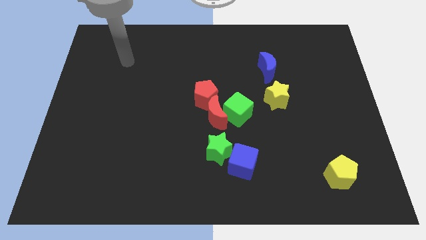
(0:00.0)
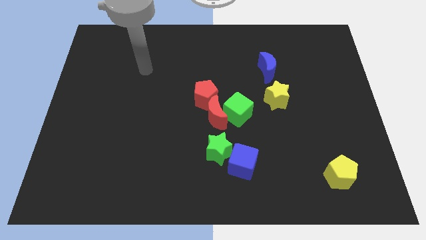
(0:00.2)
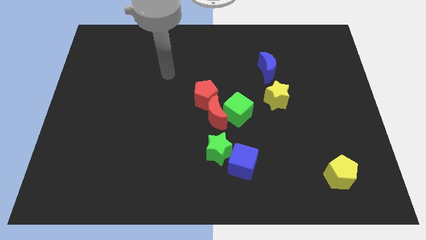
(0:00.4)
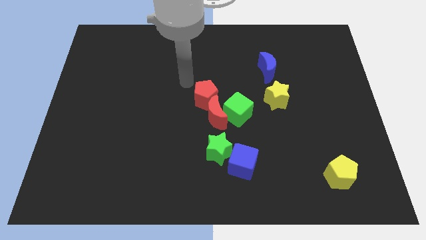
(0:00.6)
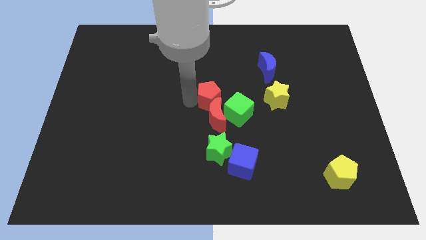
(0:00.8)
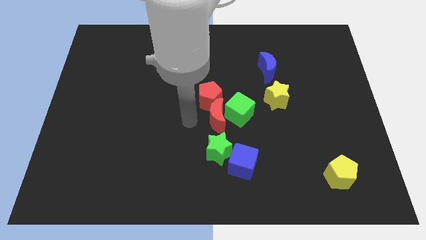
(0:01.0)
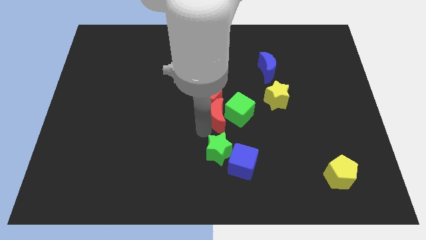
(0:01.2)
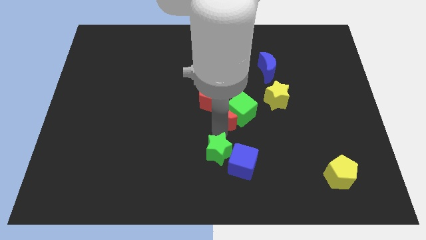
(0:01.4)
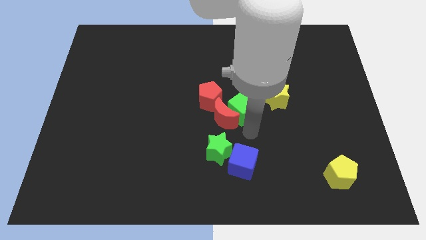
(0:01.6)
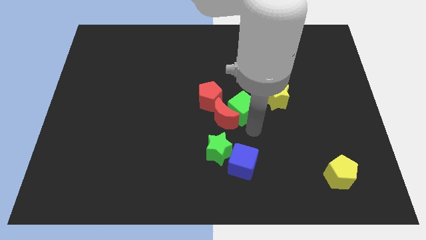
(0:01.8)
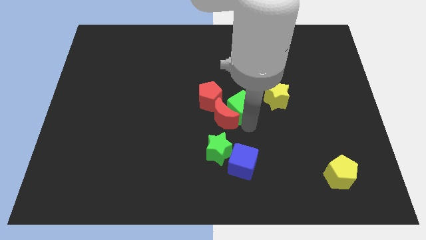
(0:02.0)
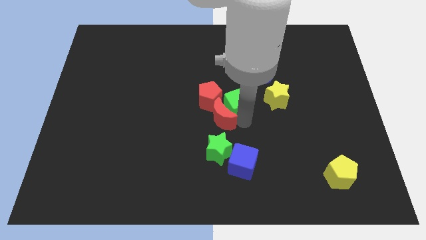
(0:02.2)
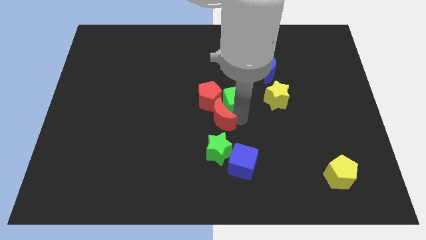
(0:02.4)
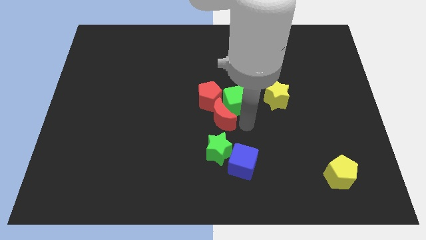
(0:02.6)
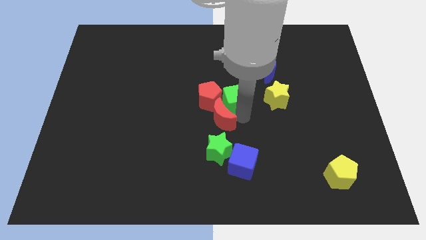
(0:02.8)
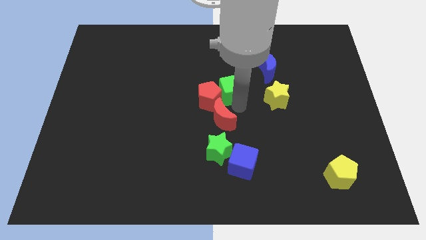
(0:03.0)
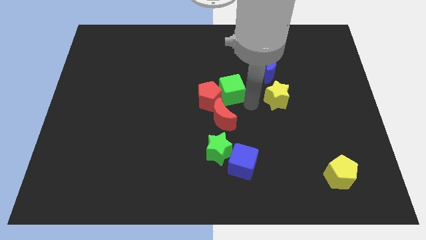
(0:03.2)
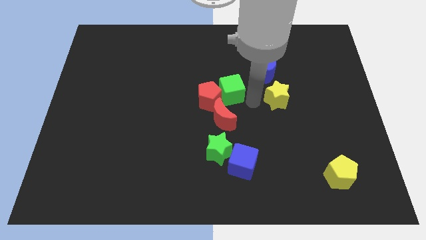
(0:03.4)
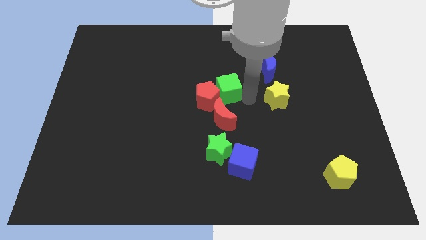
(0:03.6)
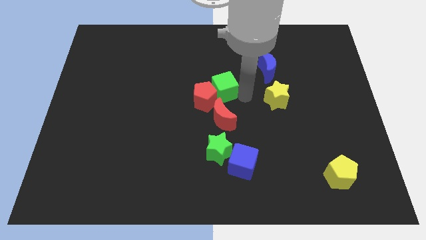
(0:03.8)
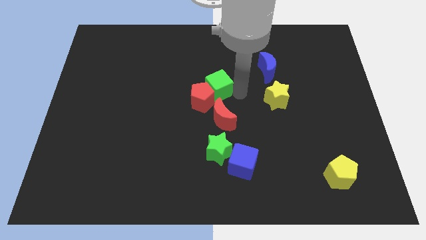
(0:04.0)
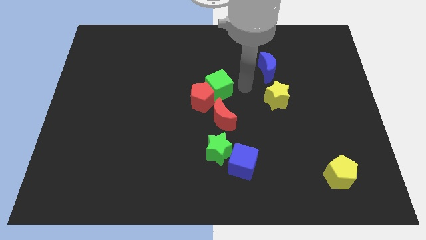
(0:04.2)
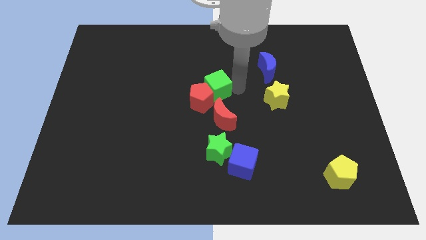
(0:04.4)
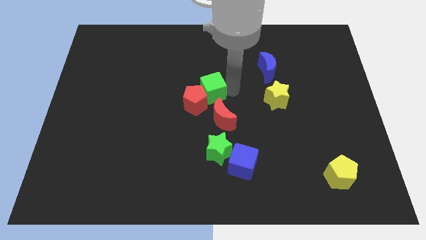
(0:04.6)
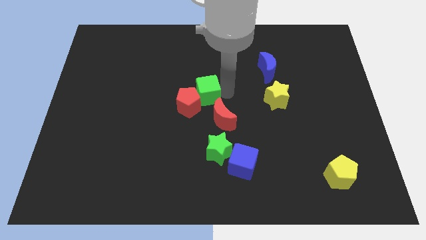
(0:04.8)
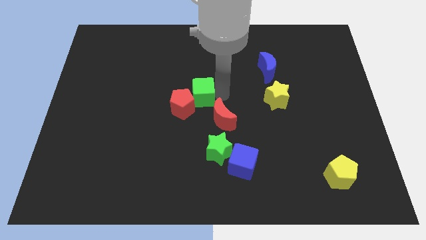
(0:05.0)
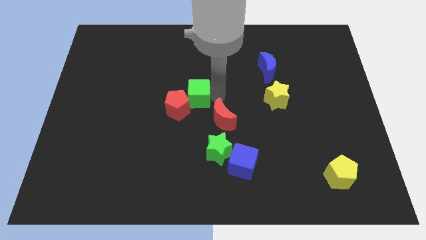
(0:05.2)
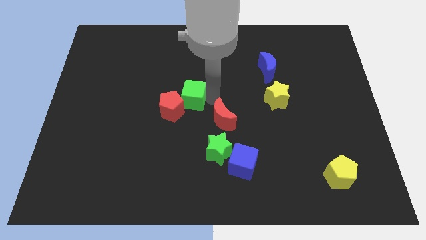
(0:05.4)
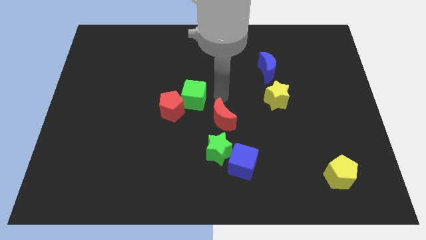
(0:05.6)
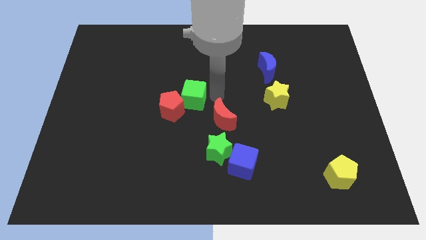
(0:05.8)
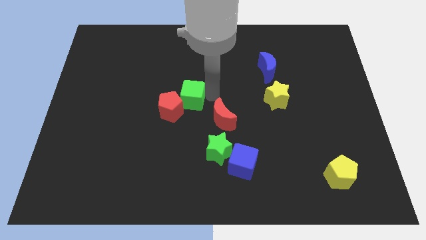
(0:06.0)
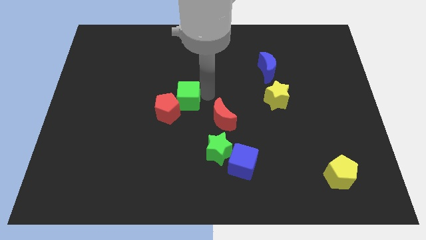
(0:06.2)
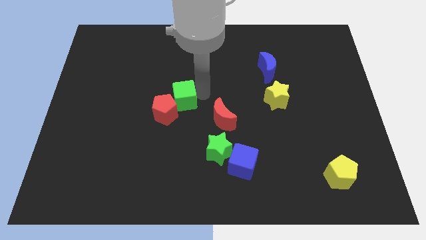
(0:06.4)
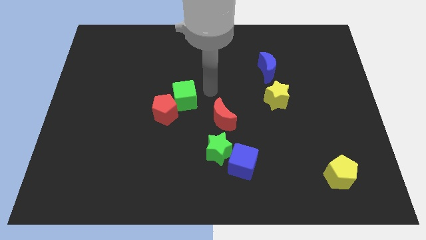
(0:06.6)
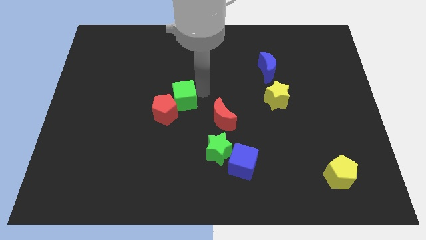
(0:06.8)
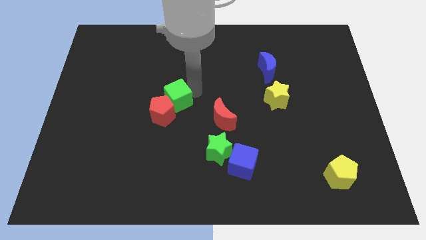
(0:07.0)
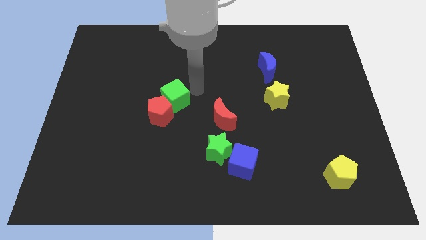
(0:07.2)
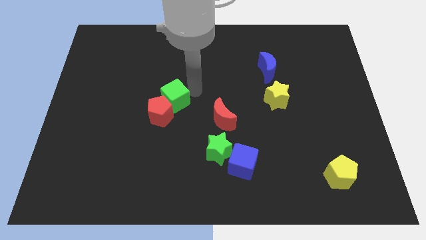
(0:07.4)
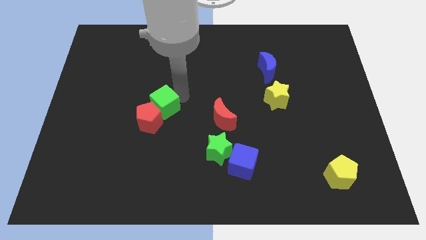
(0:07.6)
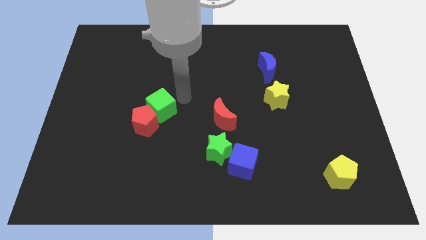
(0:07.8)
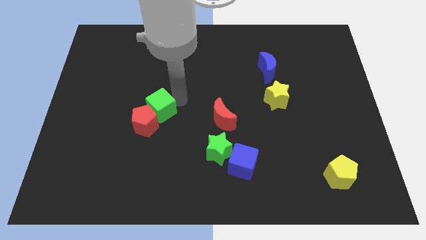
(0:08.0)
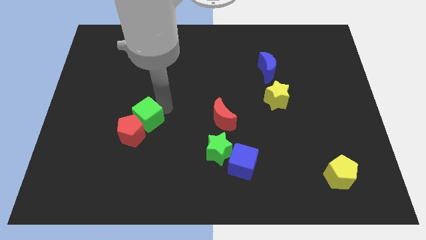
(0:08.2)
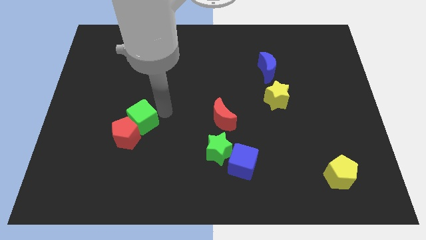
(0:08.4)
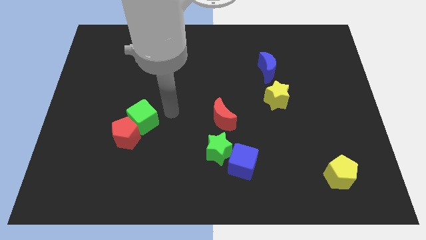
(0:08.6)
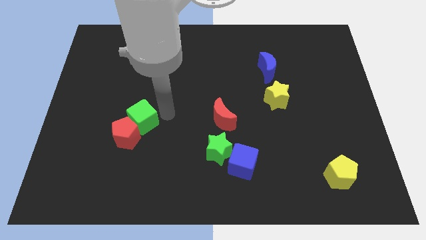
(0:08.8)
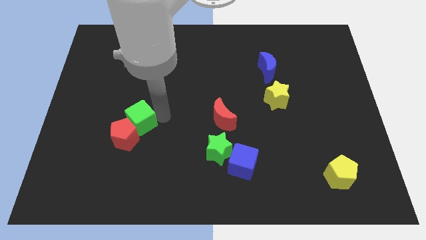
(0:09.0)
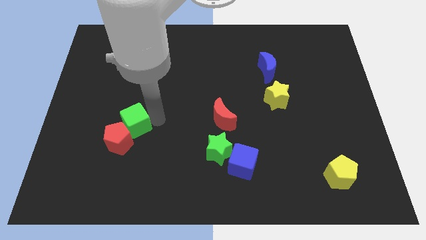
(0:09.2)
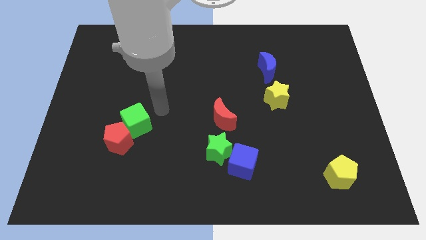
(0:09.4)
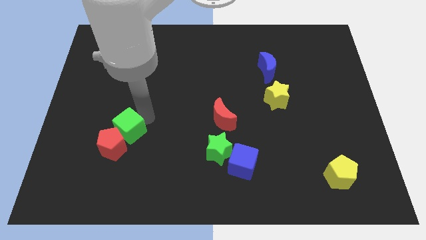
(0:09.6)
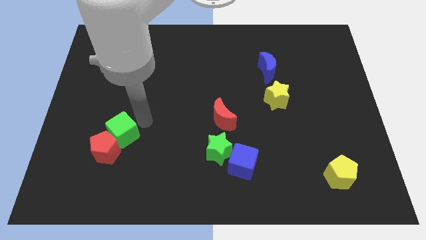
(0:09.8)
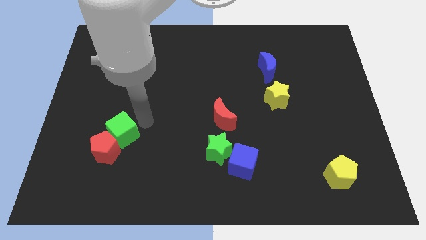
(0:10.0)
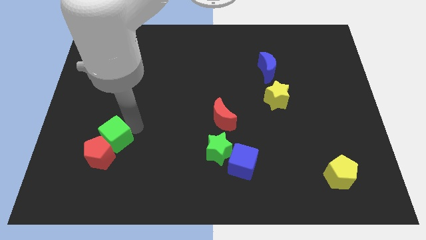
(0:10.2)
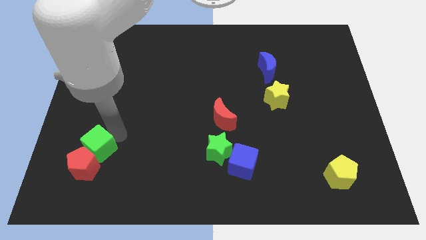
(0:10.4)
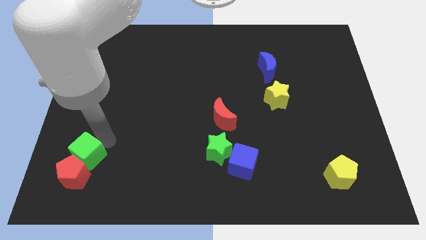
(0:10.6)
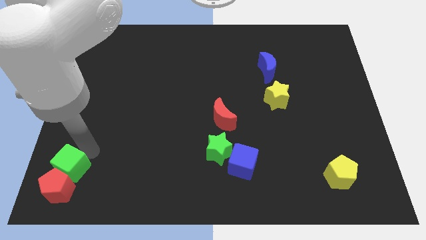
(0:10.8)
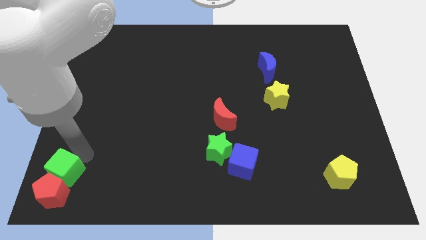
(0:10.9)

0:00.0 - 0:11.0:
move the green cube to the bottom left corner
